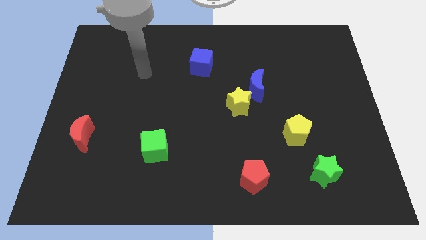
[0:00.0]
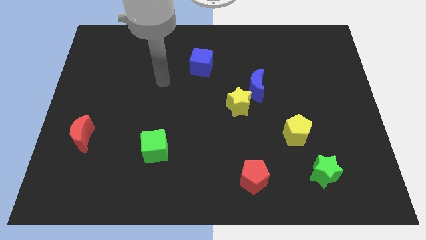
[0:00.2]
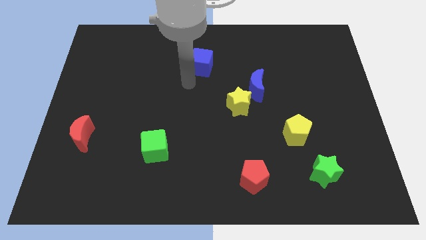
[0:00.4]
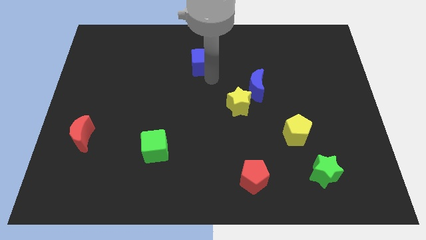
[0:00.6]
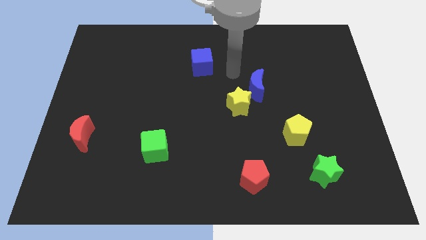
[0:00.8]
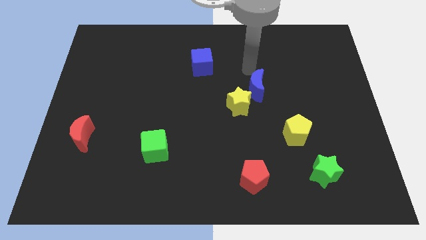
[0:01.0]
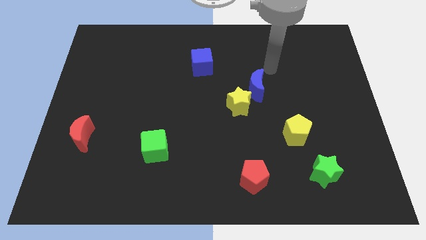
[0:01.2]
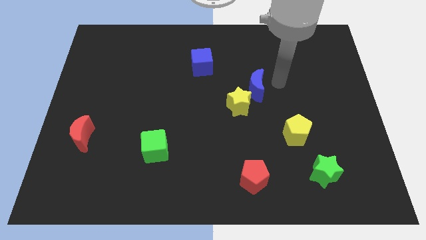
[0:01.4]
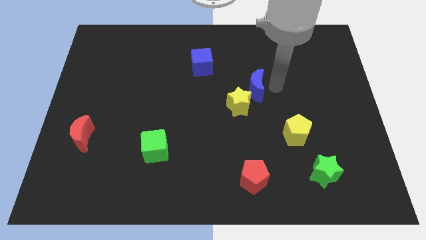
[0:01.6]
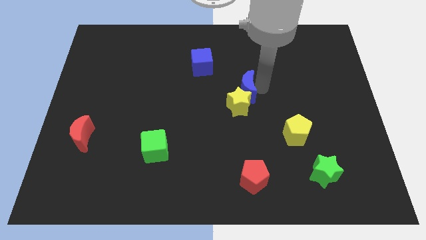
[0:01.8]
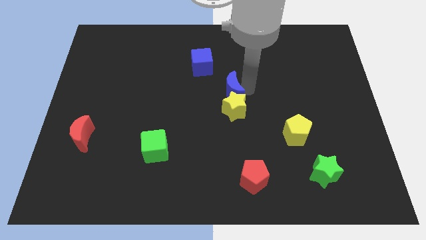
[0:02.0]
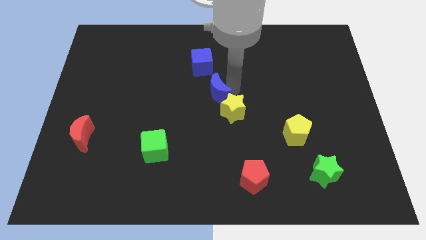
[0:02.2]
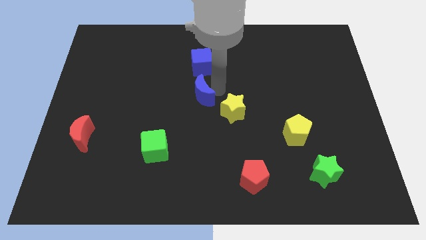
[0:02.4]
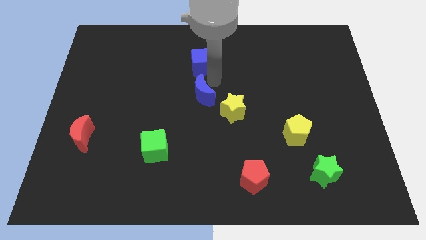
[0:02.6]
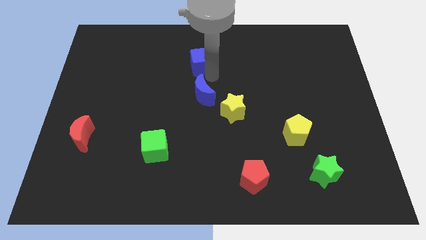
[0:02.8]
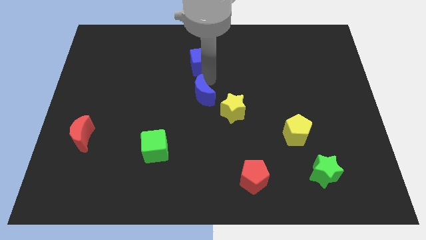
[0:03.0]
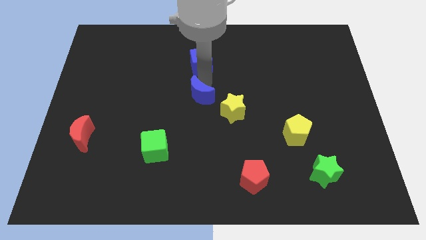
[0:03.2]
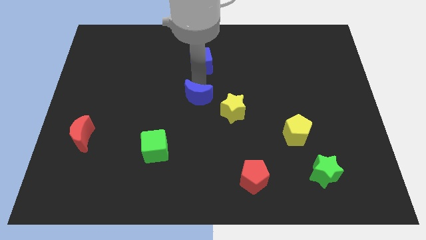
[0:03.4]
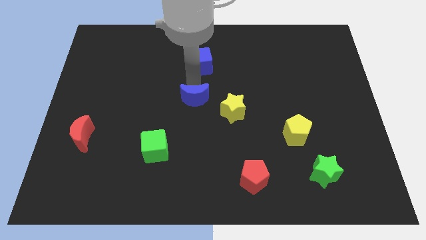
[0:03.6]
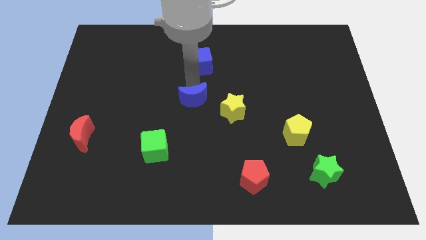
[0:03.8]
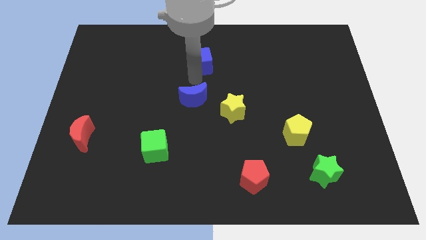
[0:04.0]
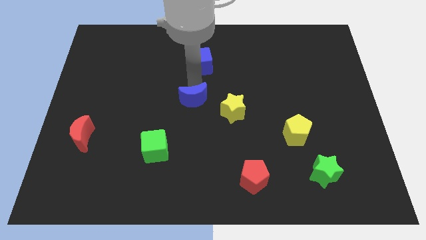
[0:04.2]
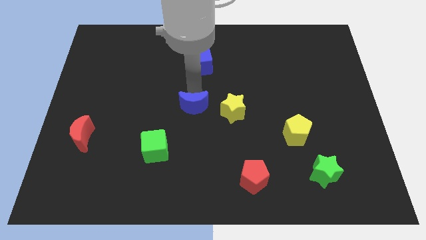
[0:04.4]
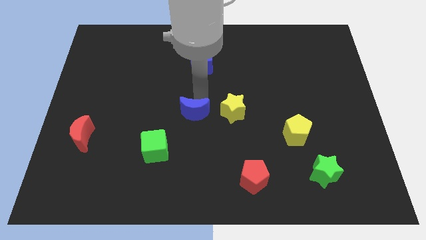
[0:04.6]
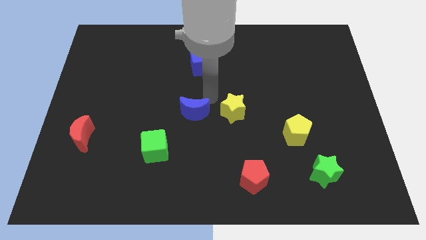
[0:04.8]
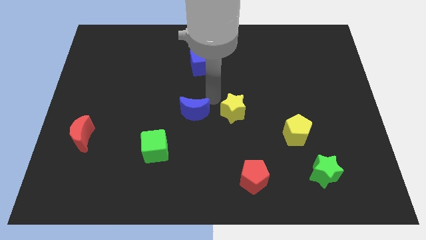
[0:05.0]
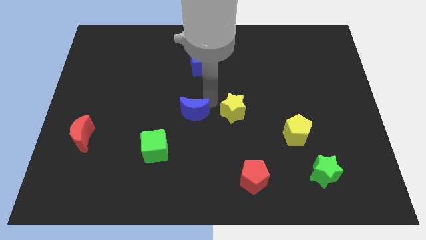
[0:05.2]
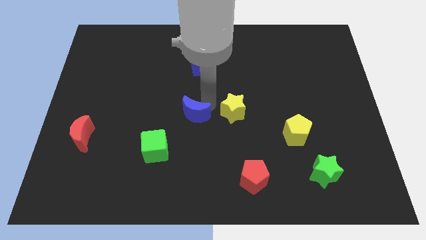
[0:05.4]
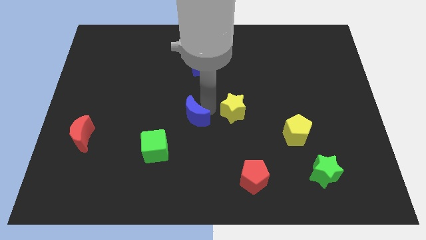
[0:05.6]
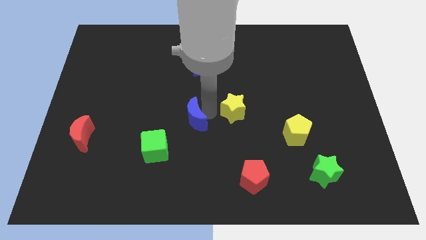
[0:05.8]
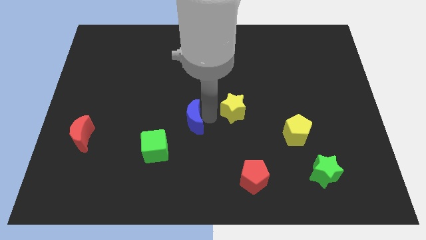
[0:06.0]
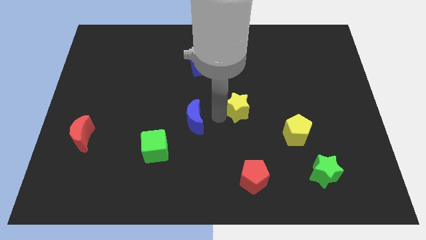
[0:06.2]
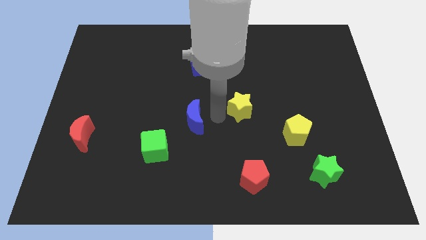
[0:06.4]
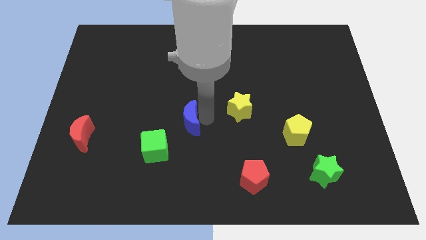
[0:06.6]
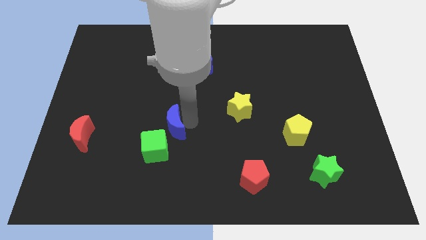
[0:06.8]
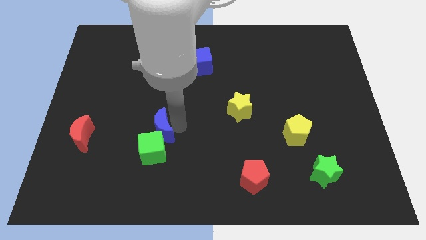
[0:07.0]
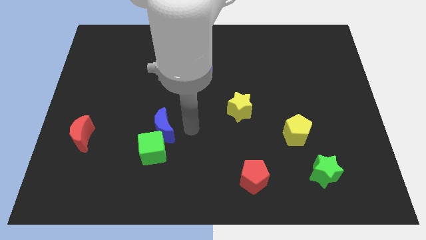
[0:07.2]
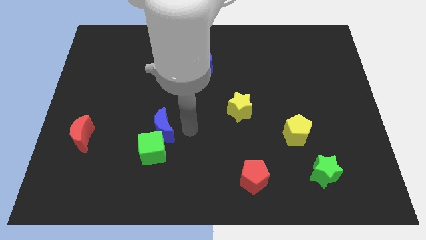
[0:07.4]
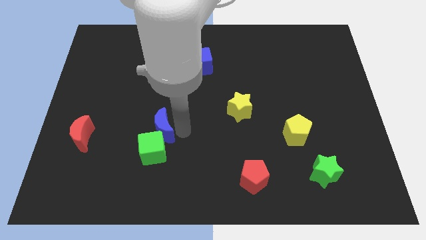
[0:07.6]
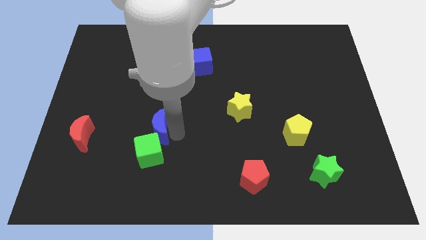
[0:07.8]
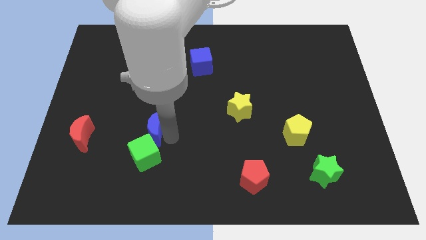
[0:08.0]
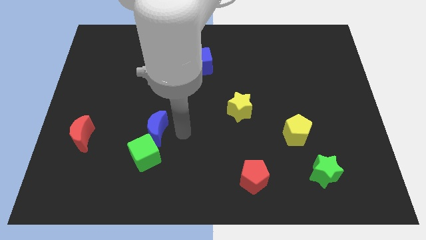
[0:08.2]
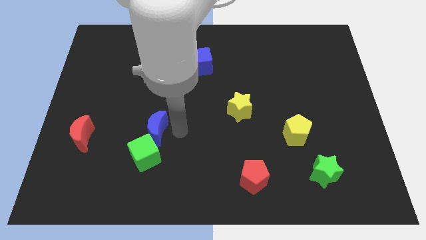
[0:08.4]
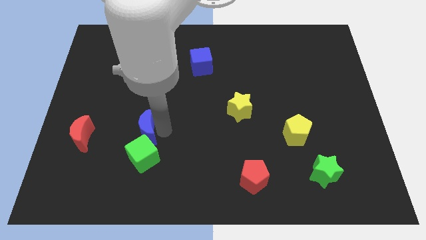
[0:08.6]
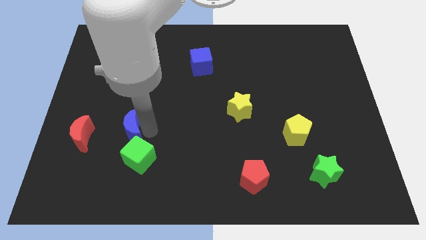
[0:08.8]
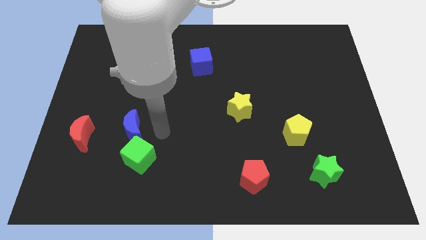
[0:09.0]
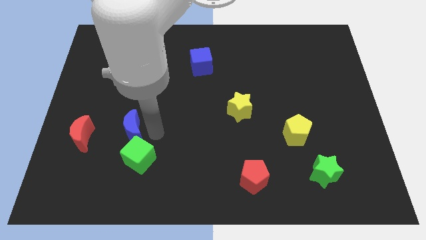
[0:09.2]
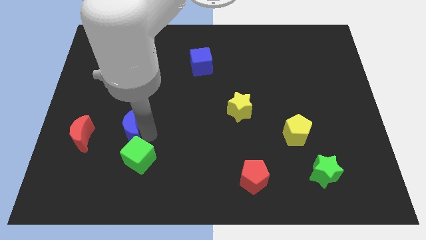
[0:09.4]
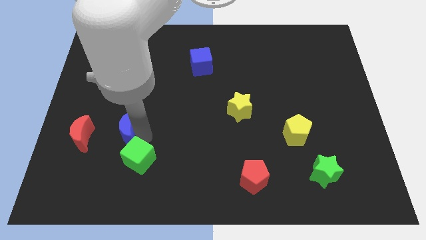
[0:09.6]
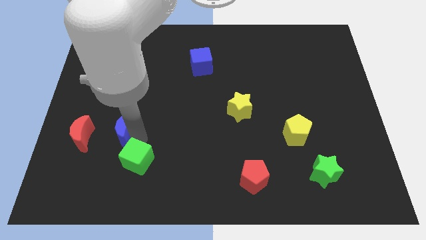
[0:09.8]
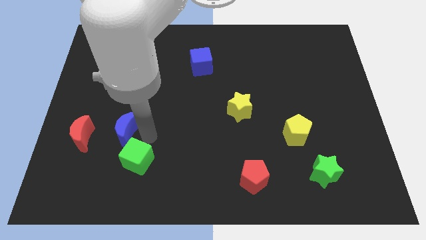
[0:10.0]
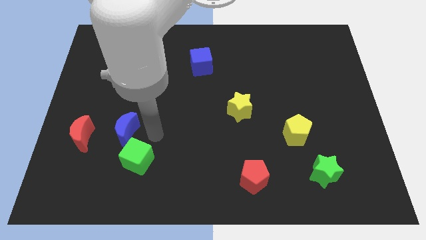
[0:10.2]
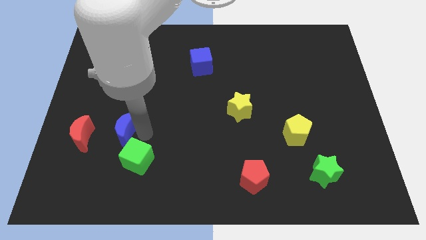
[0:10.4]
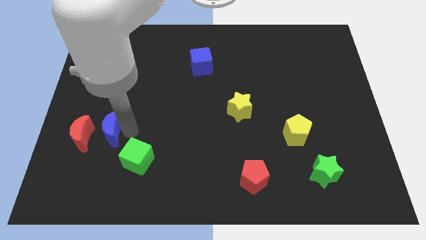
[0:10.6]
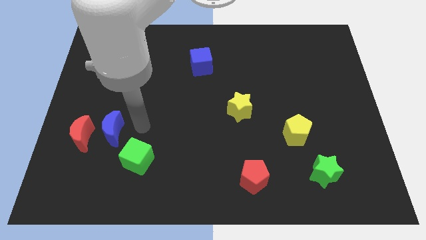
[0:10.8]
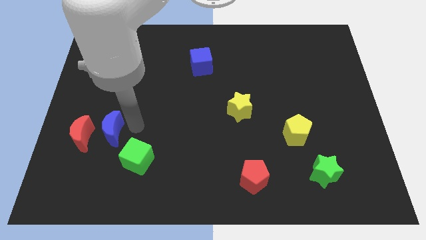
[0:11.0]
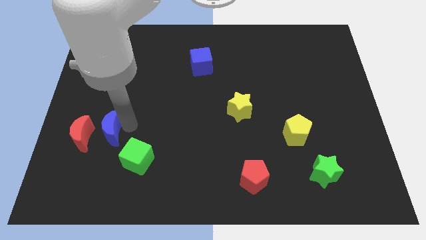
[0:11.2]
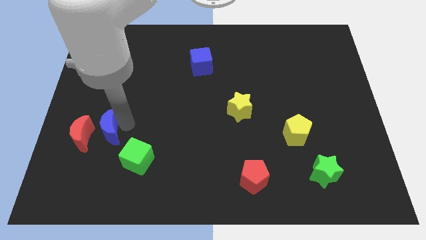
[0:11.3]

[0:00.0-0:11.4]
slide the blue moon close to the red moon

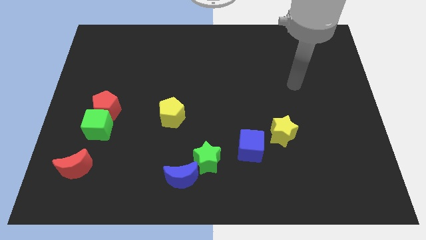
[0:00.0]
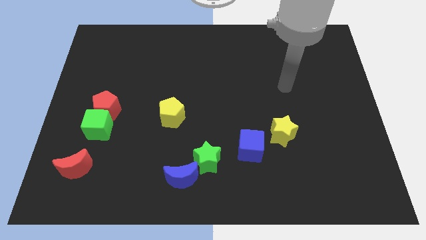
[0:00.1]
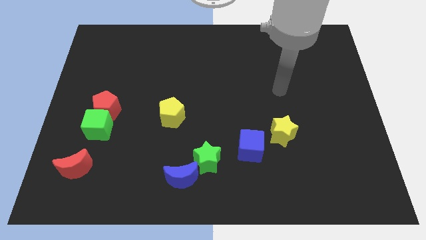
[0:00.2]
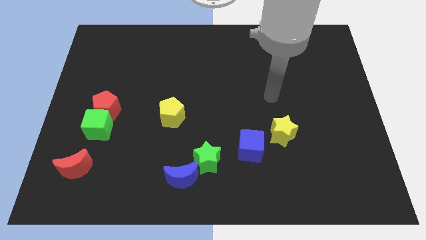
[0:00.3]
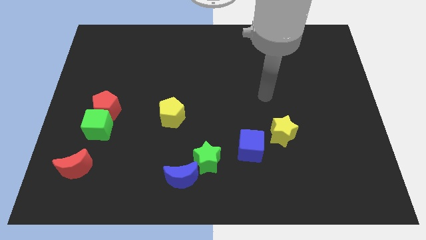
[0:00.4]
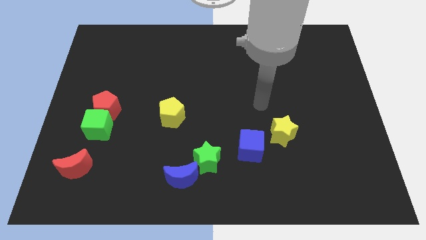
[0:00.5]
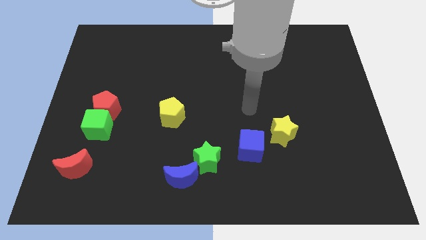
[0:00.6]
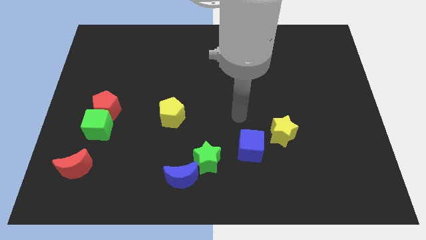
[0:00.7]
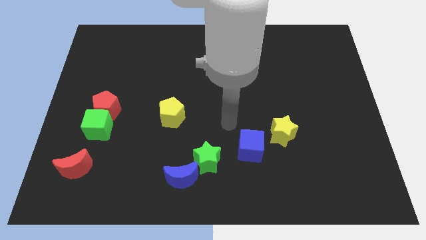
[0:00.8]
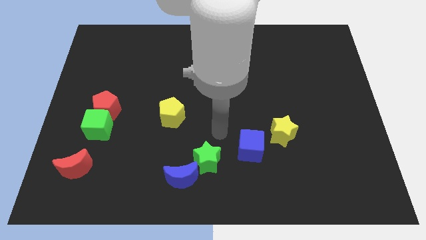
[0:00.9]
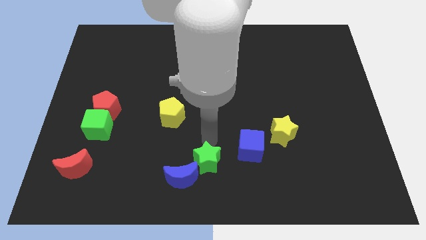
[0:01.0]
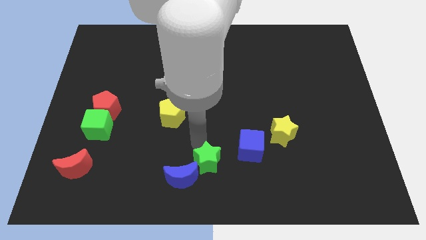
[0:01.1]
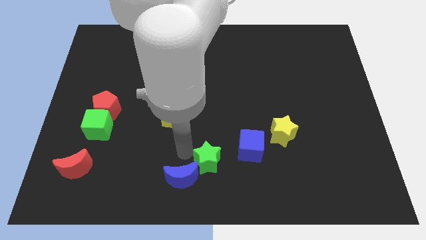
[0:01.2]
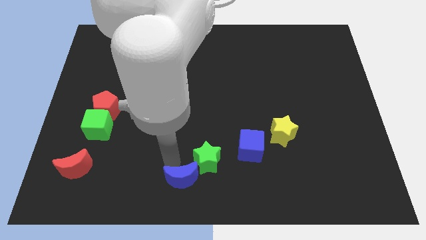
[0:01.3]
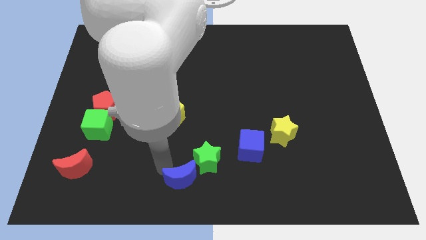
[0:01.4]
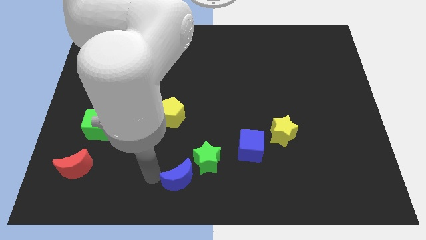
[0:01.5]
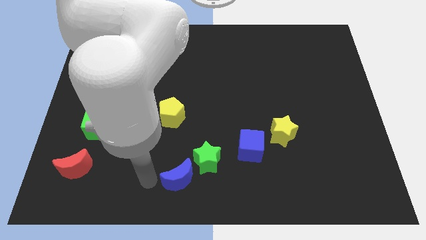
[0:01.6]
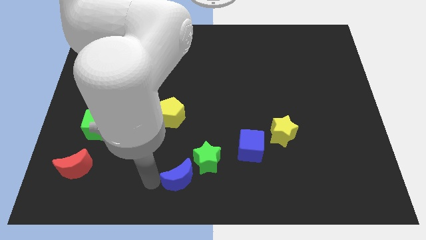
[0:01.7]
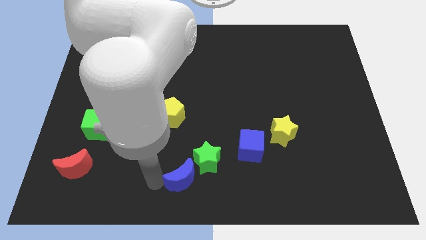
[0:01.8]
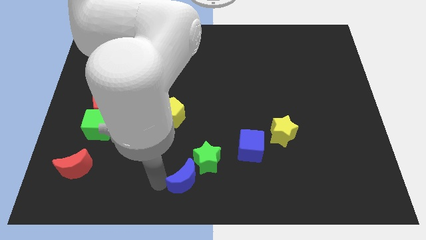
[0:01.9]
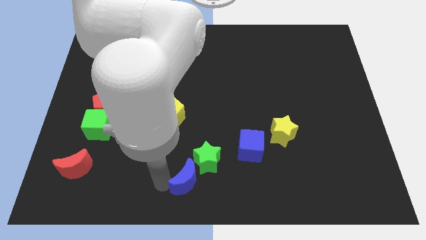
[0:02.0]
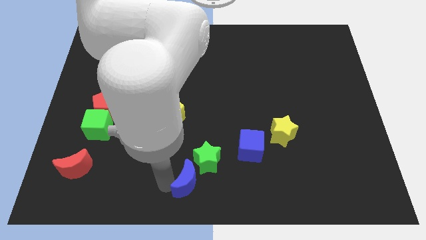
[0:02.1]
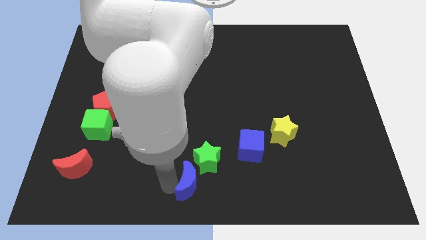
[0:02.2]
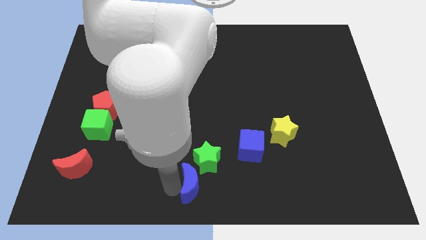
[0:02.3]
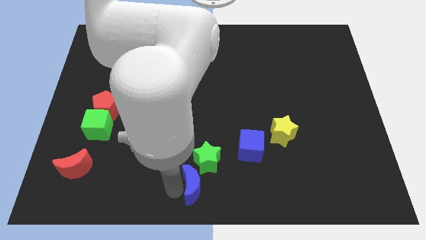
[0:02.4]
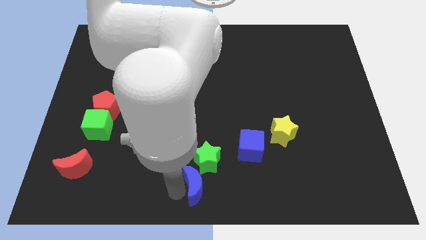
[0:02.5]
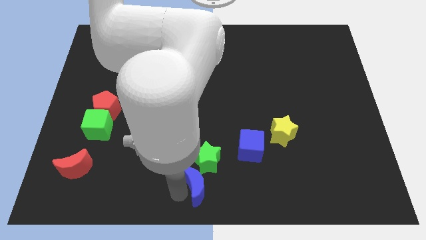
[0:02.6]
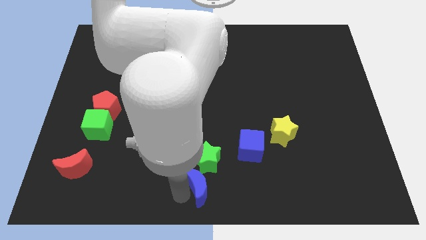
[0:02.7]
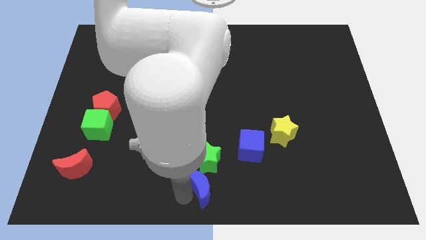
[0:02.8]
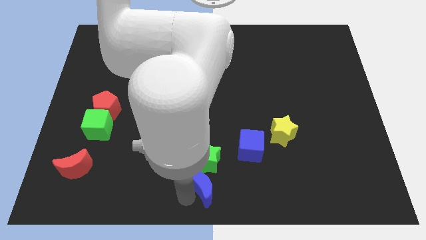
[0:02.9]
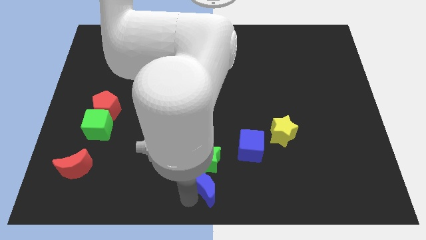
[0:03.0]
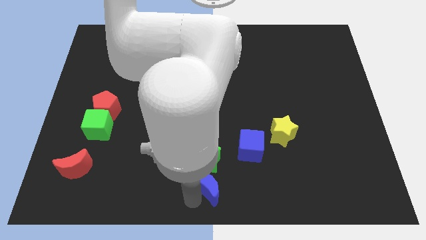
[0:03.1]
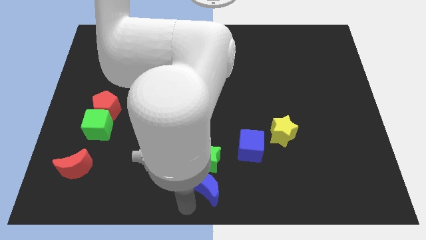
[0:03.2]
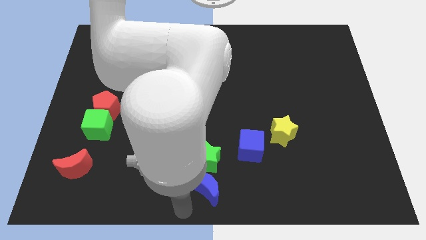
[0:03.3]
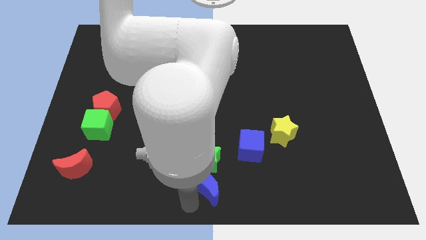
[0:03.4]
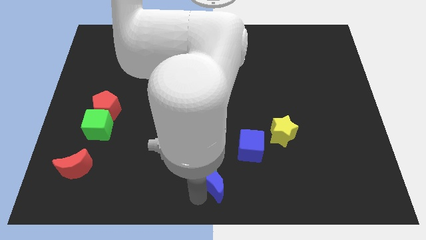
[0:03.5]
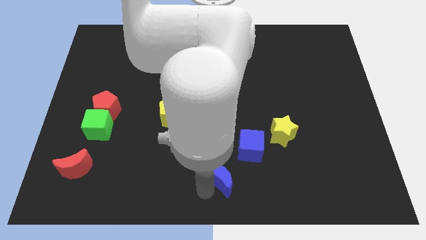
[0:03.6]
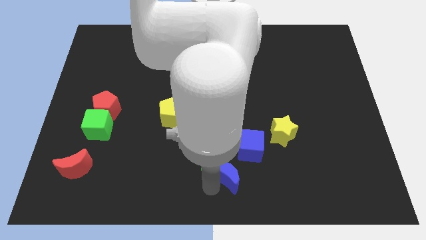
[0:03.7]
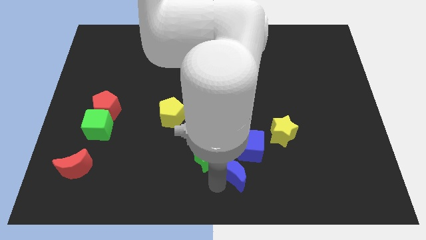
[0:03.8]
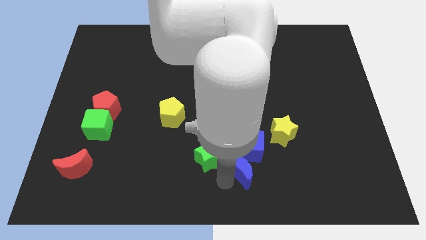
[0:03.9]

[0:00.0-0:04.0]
move the blue moon towards the blue cube
